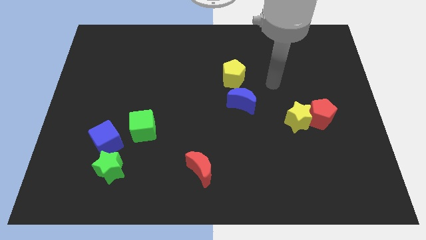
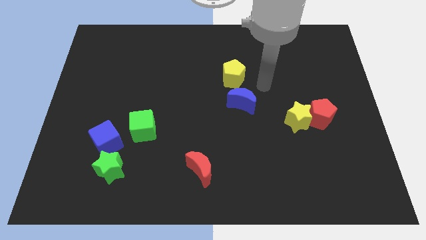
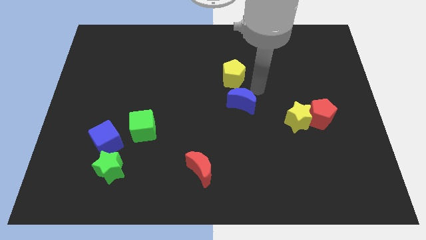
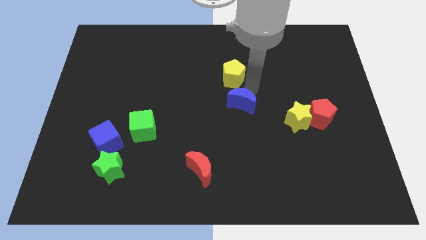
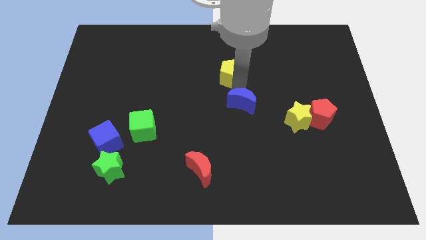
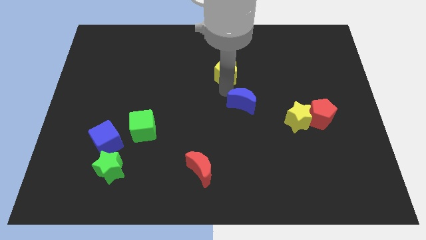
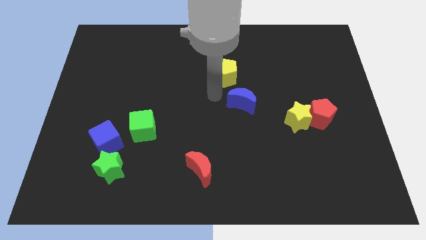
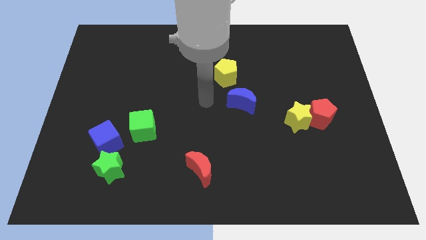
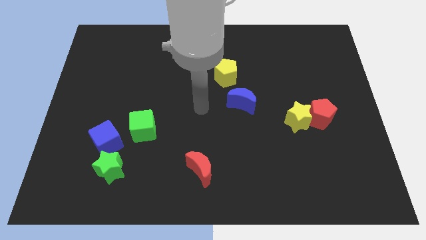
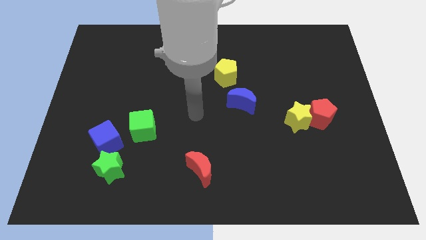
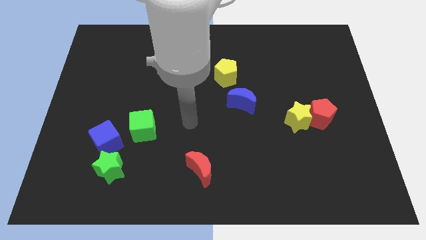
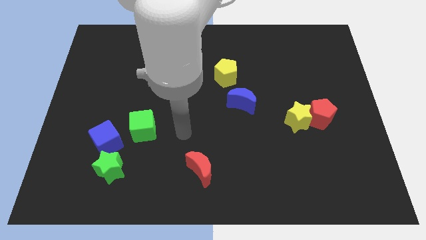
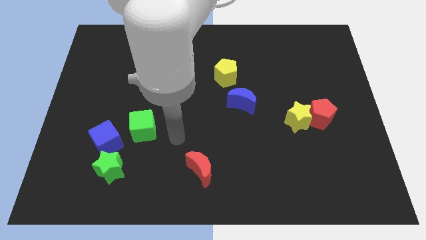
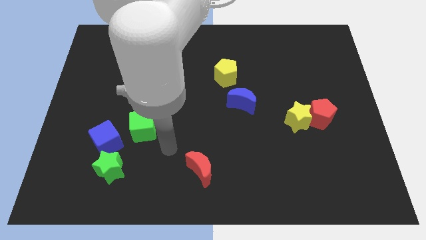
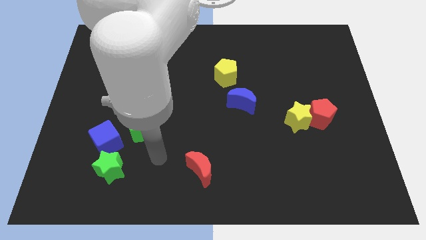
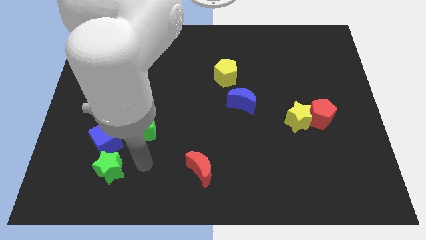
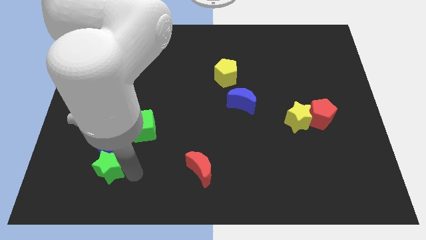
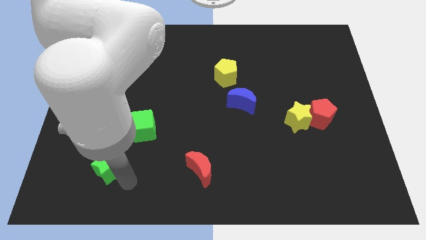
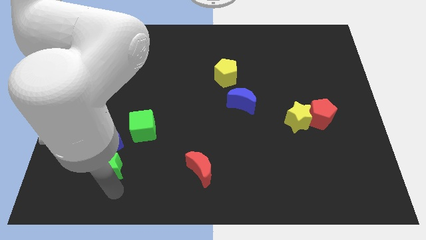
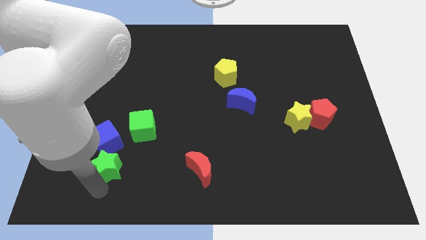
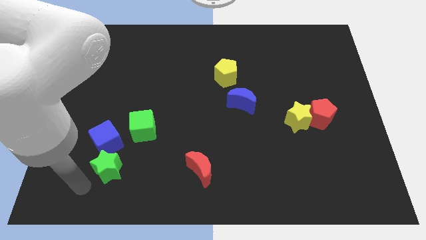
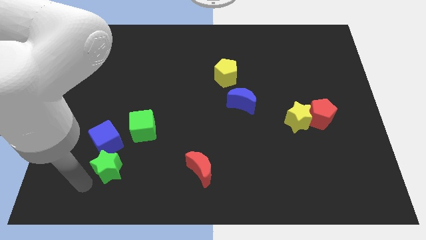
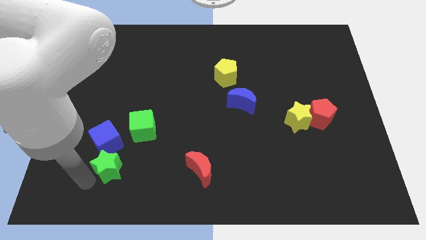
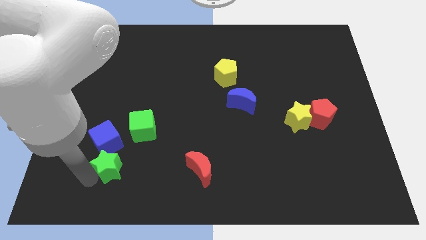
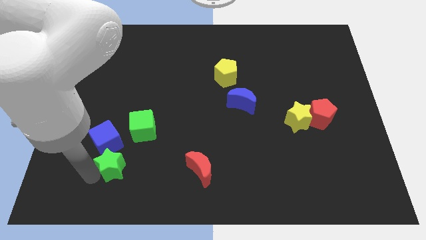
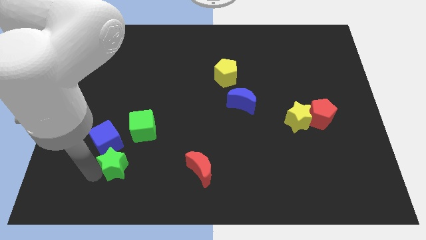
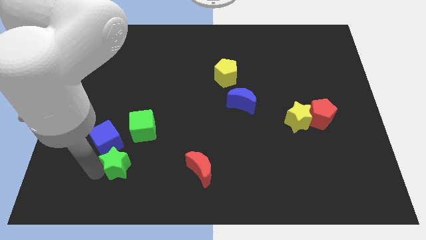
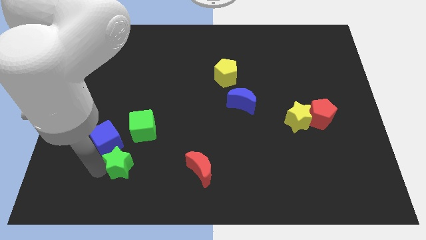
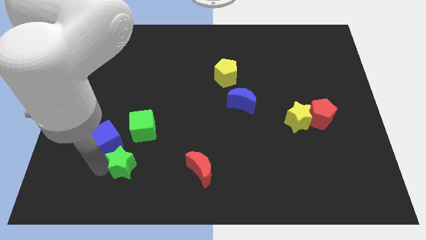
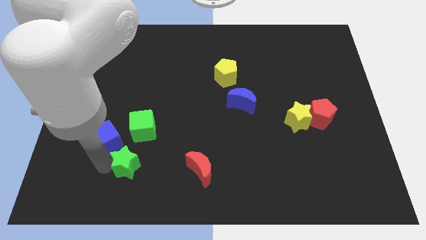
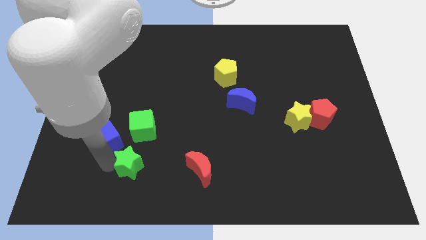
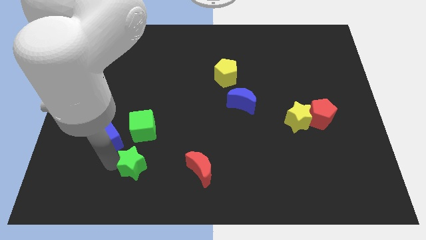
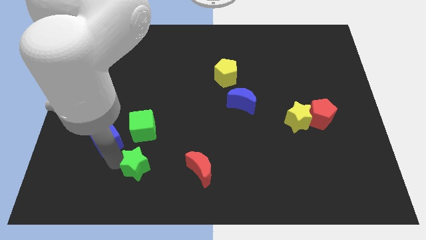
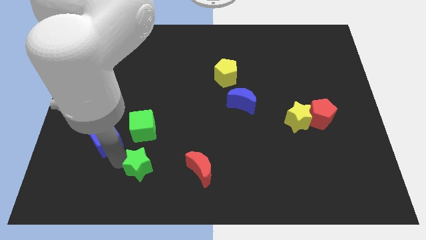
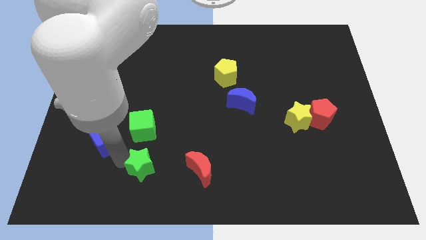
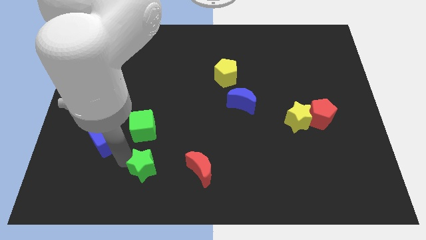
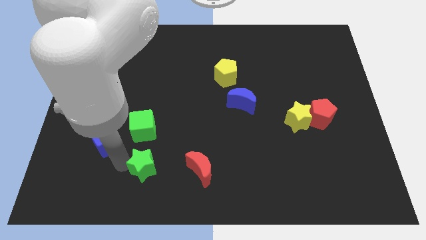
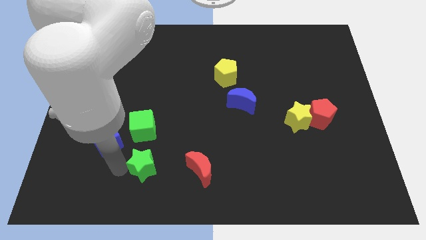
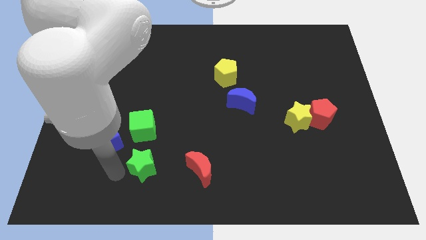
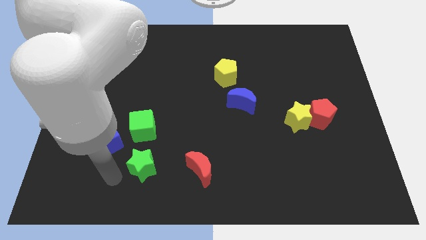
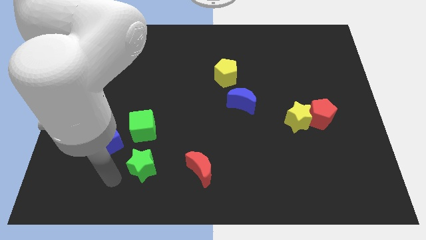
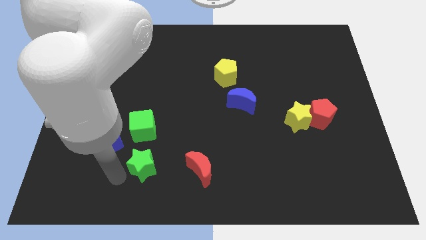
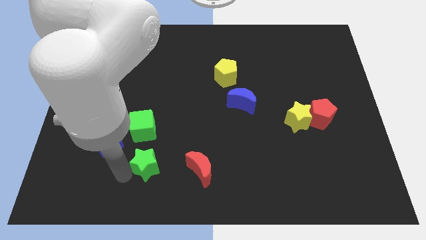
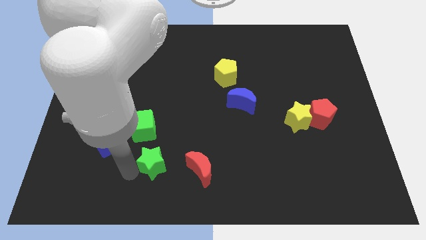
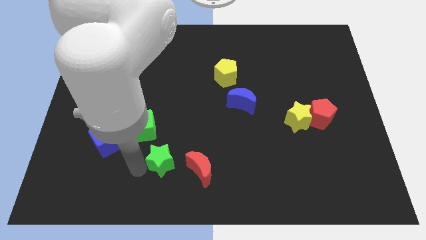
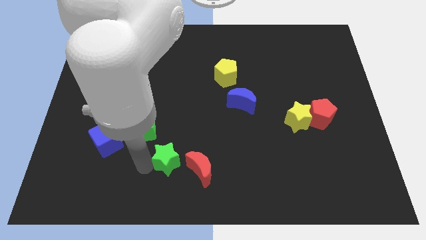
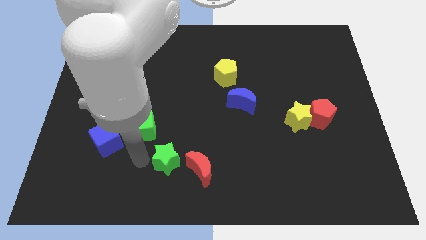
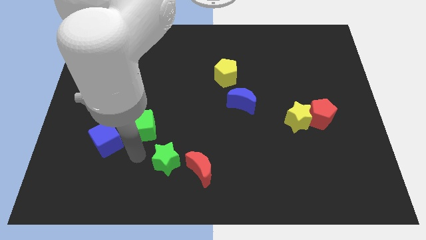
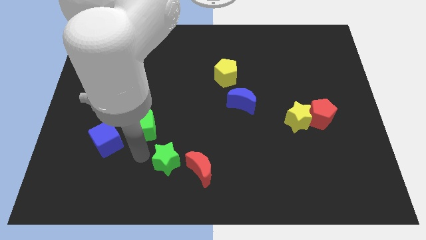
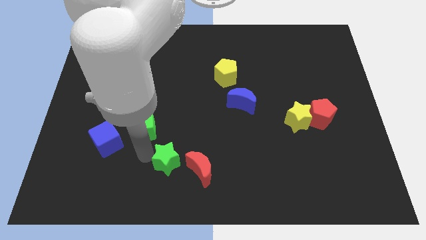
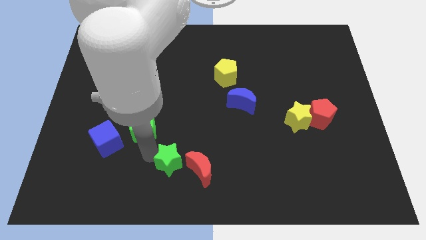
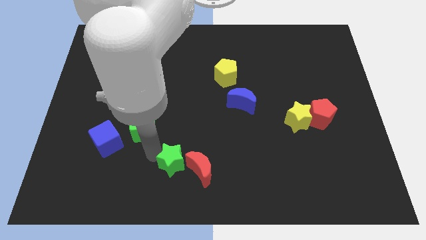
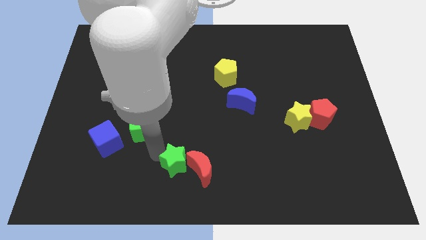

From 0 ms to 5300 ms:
push the green star to the red moon

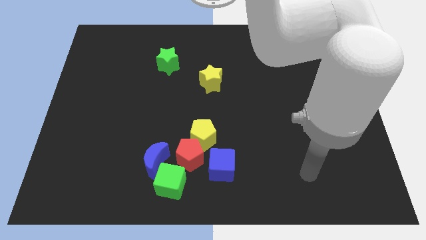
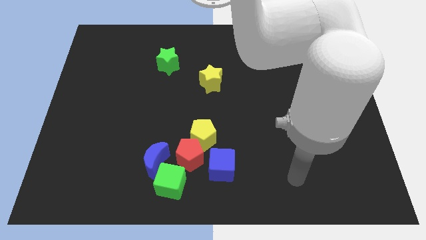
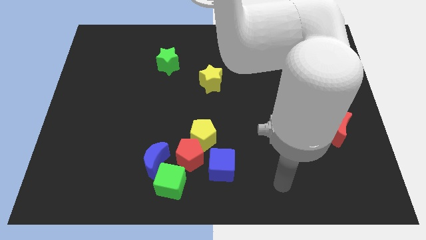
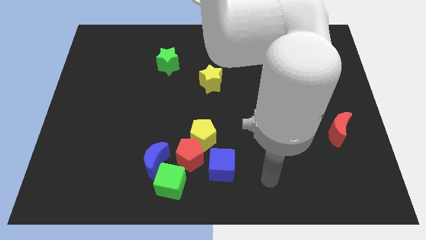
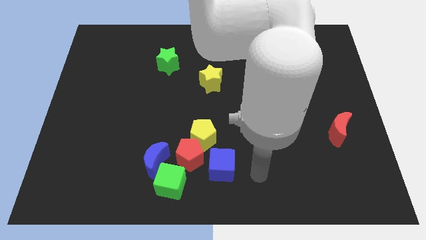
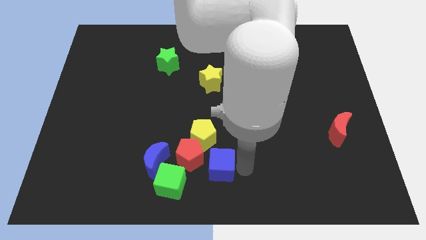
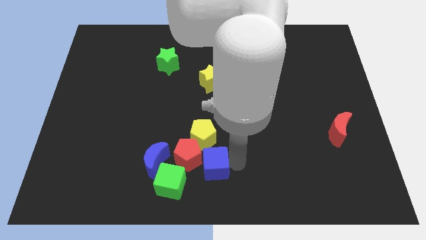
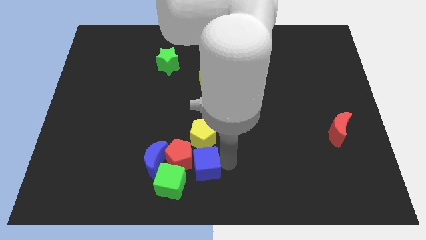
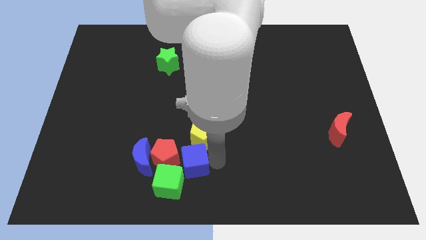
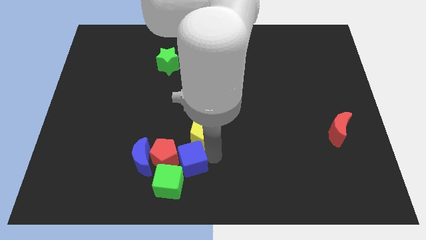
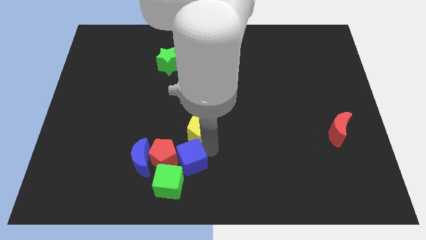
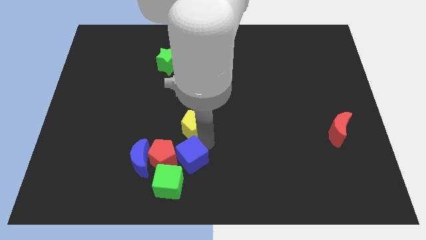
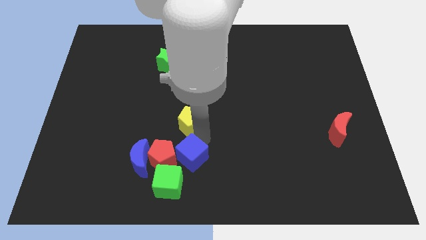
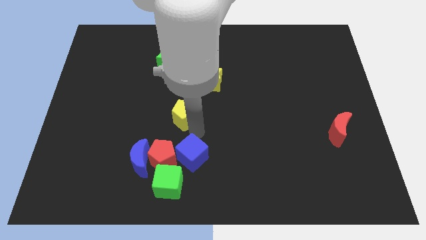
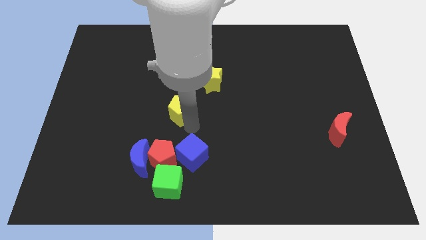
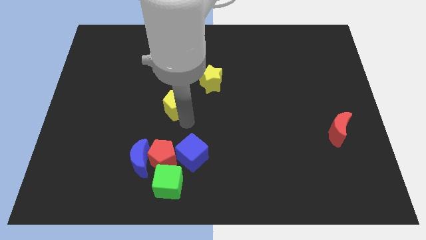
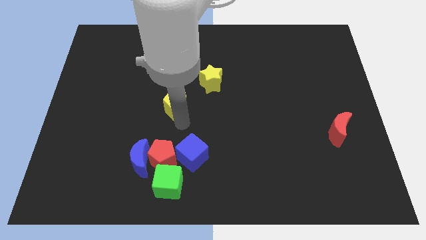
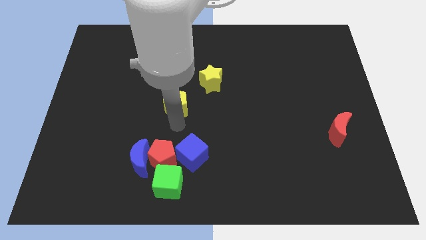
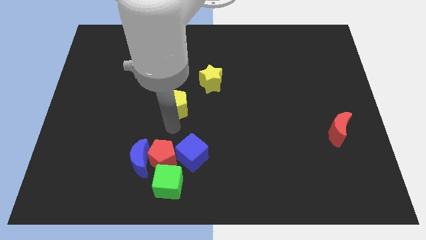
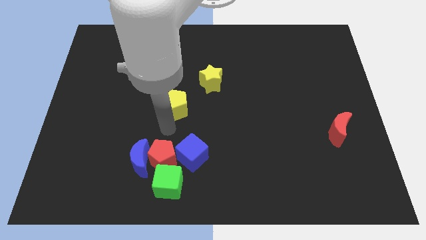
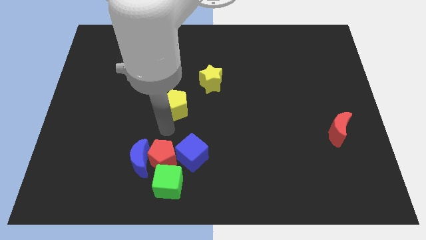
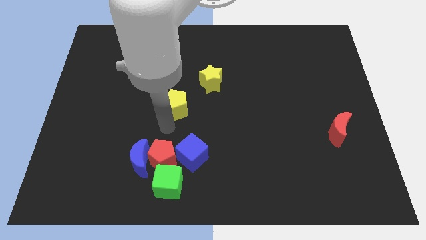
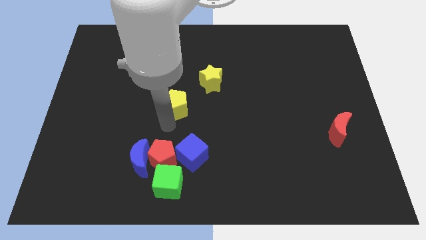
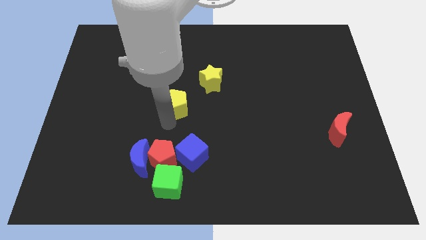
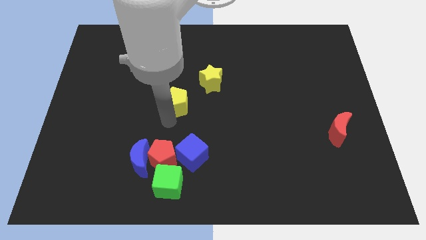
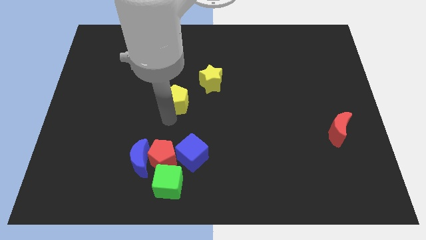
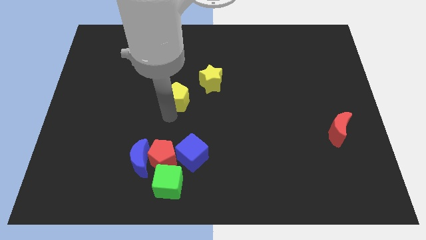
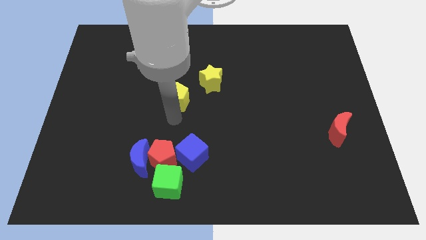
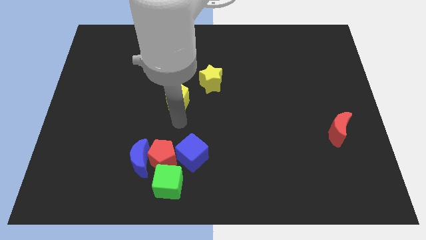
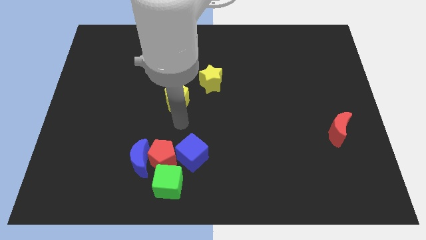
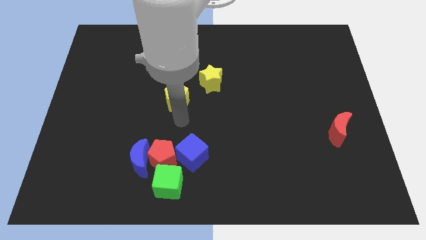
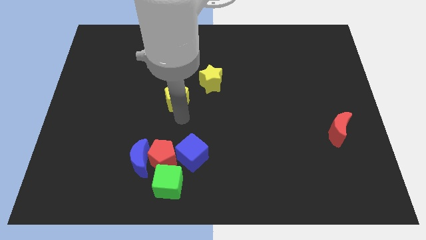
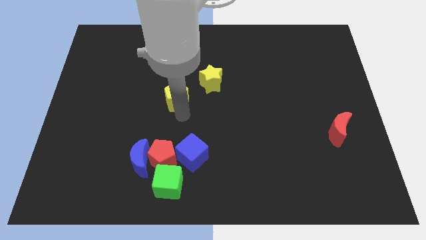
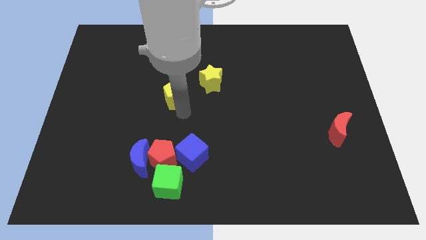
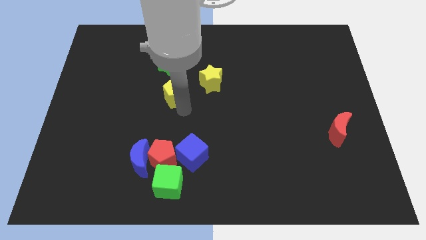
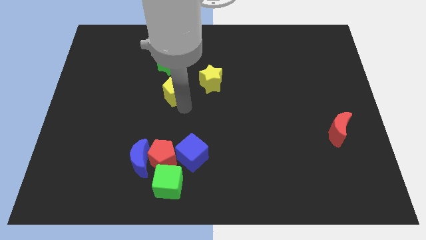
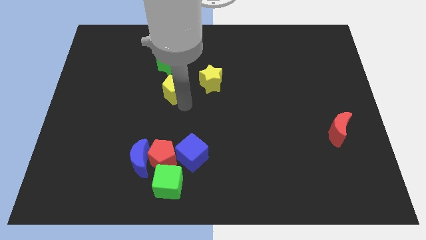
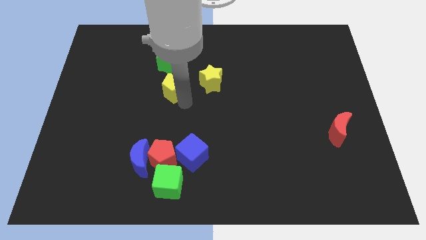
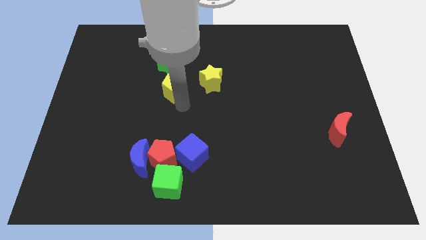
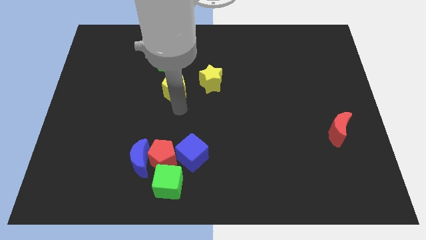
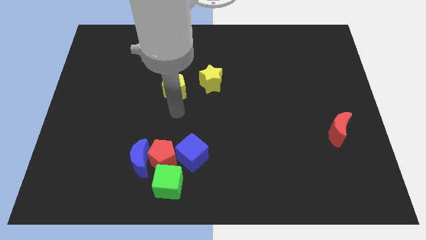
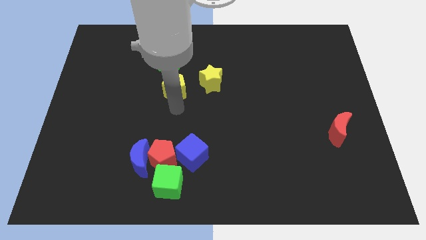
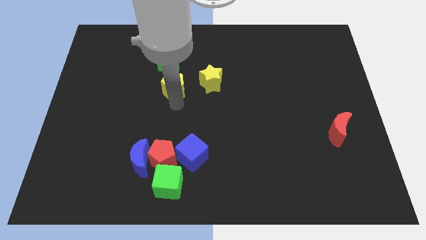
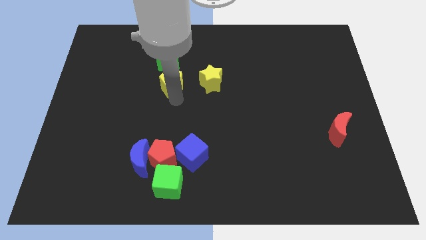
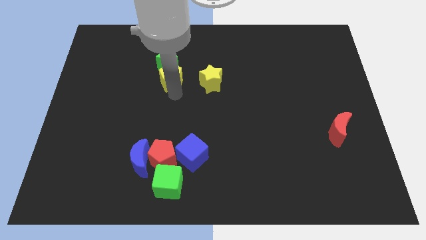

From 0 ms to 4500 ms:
put the yellow pentagon towards the green star
